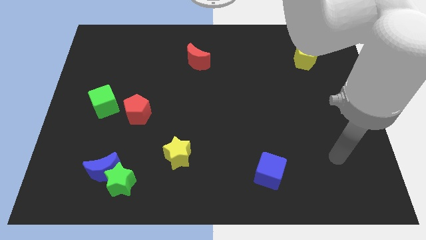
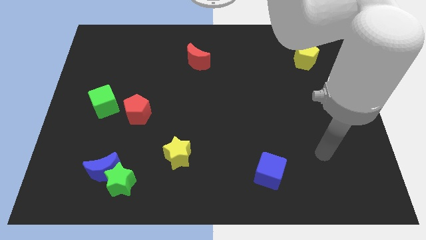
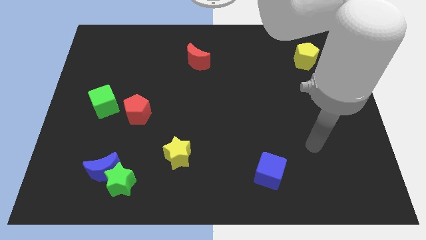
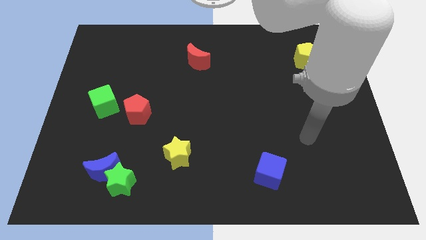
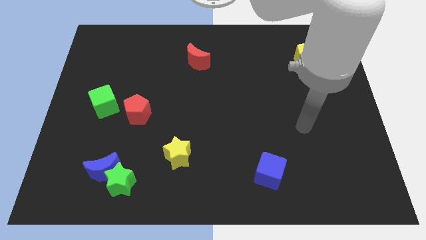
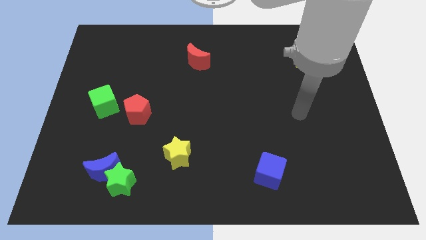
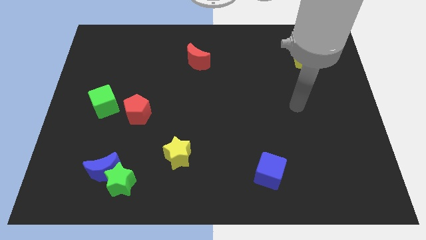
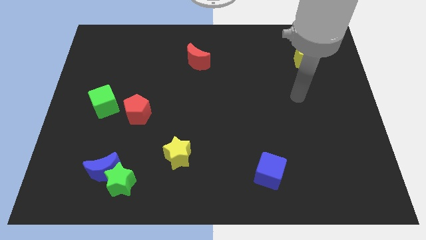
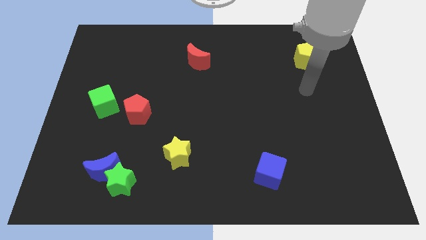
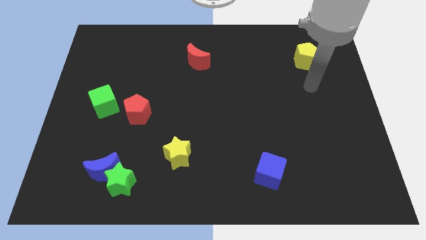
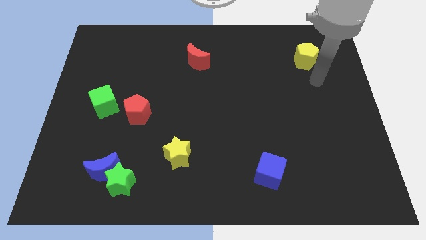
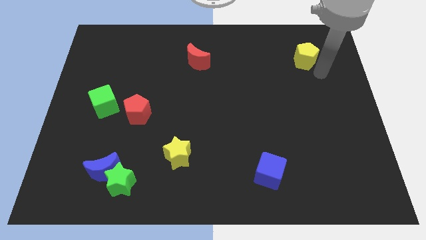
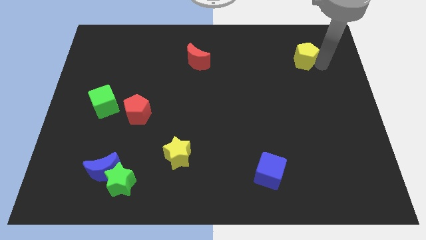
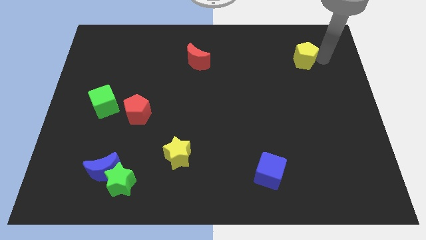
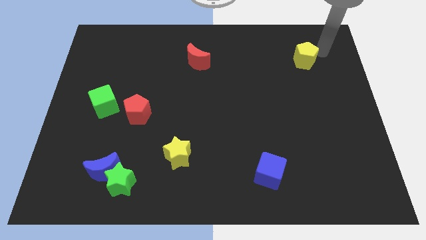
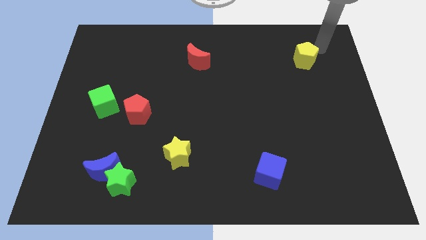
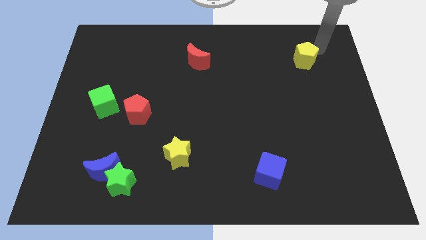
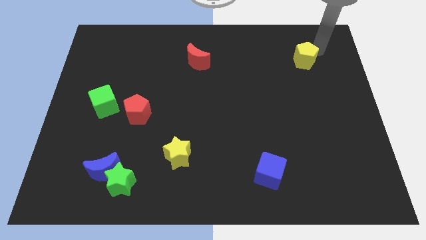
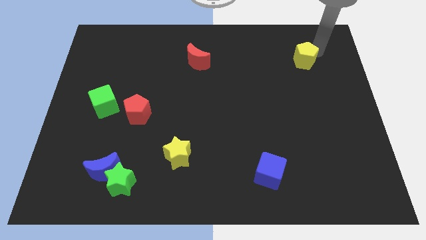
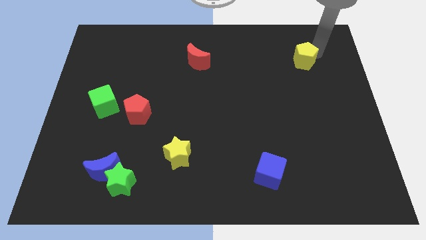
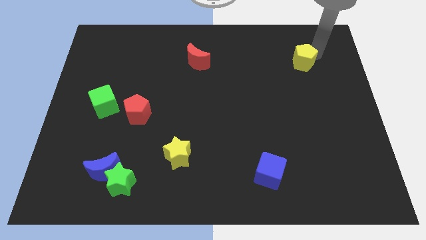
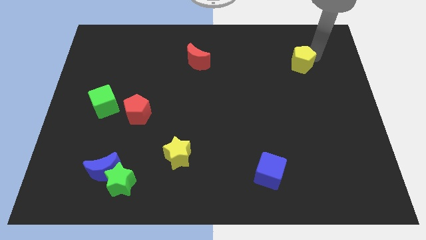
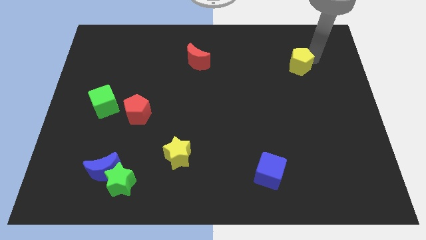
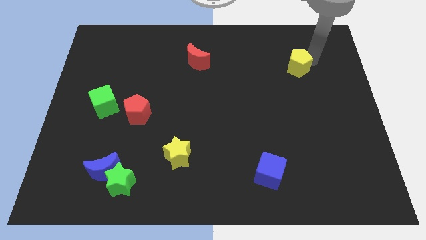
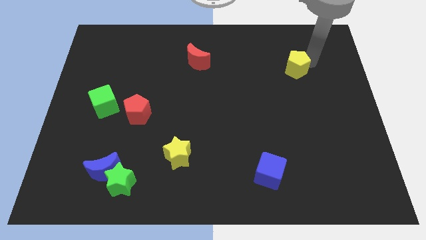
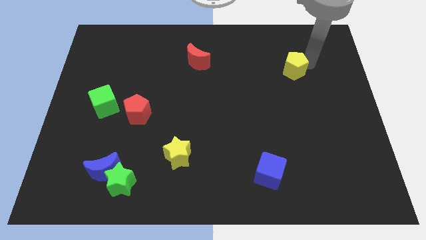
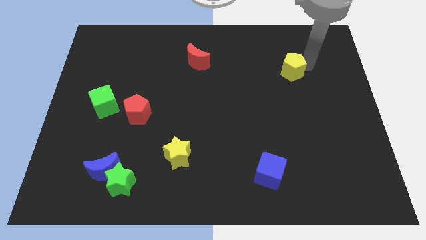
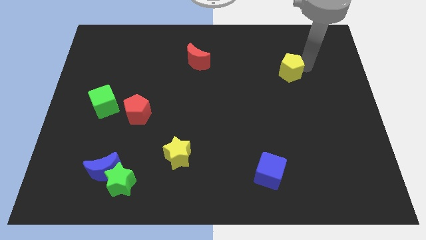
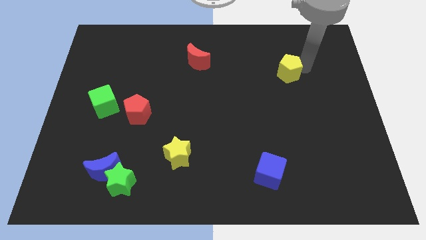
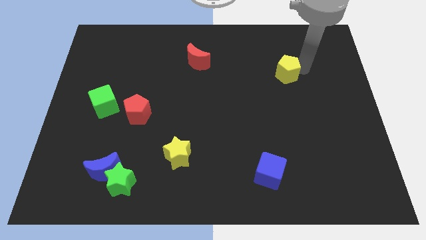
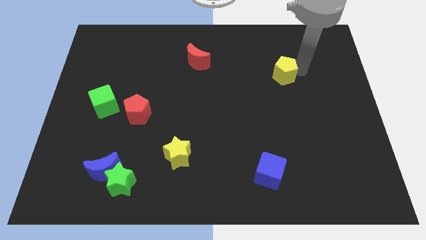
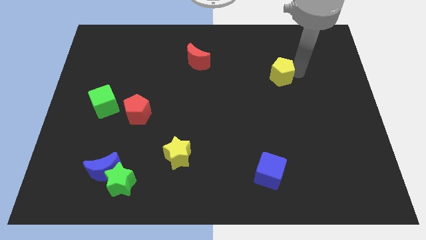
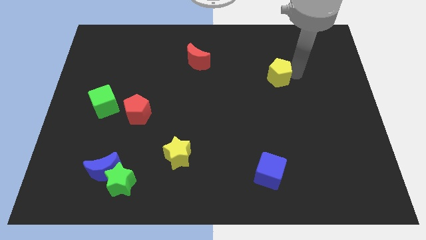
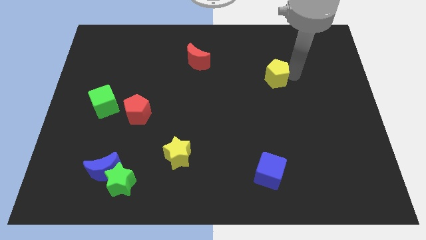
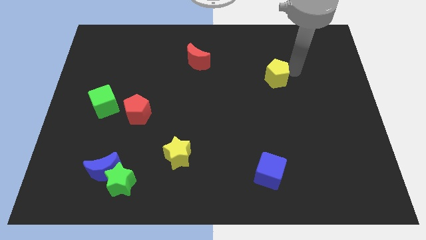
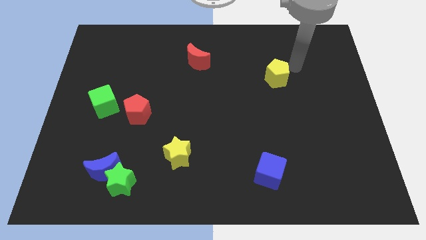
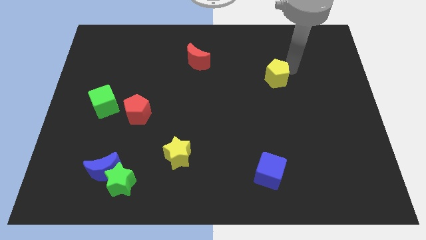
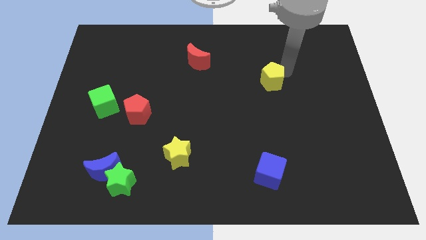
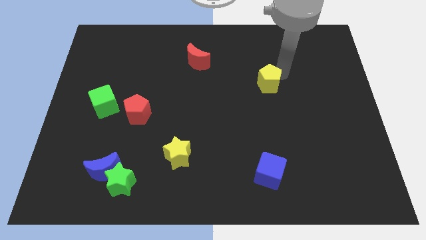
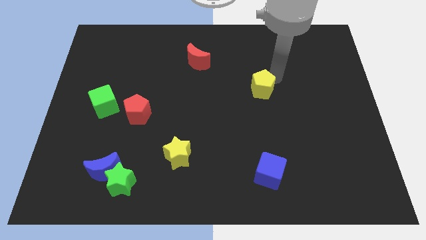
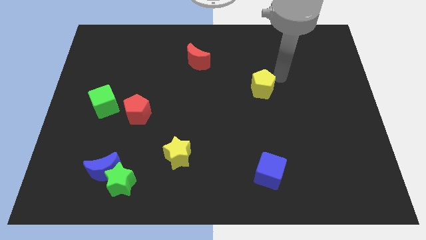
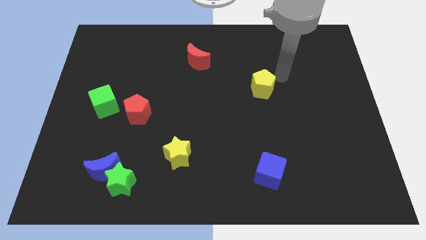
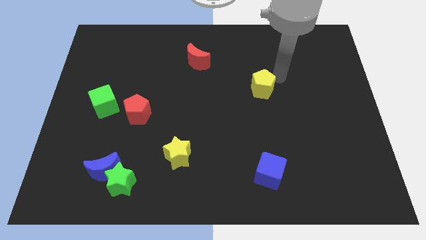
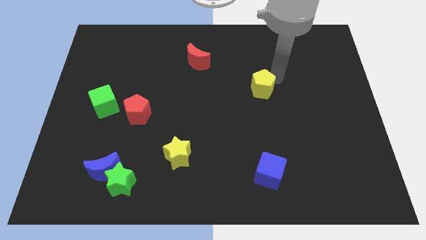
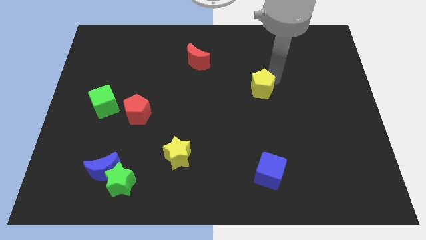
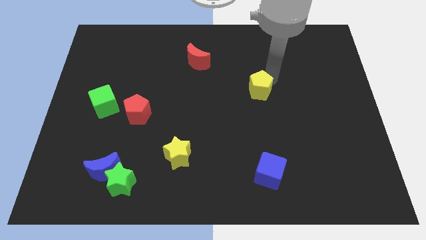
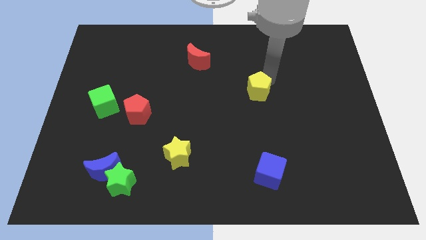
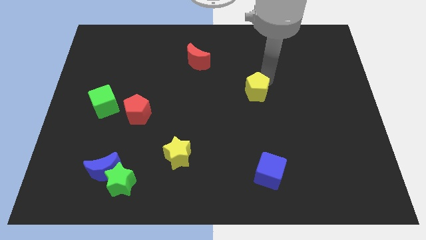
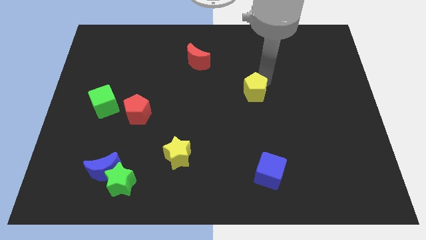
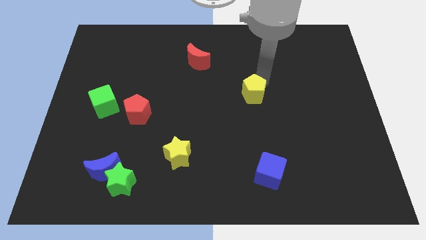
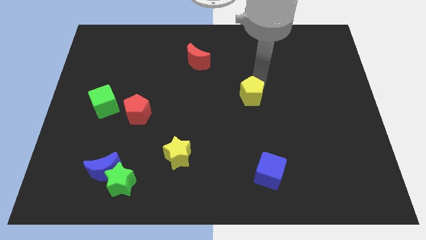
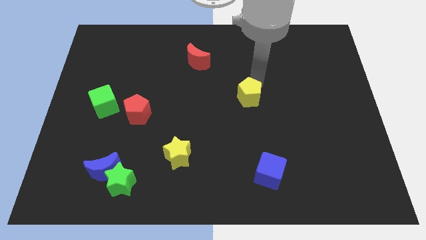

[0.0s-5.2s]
push the yellow pentagon down and to the left

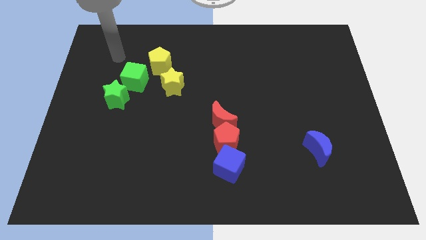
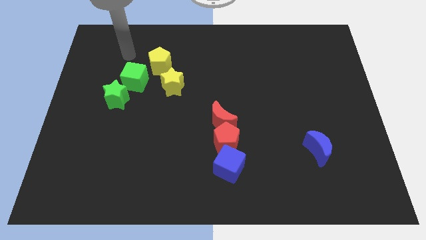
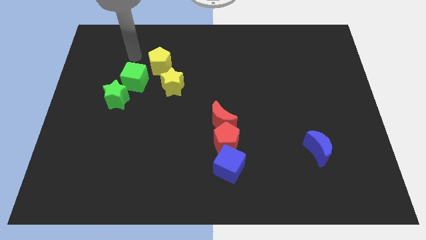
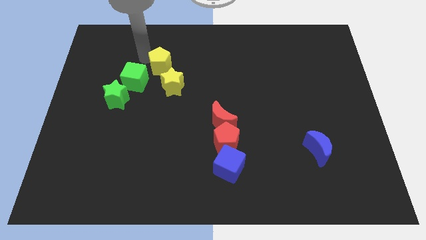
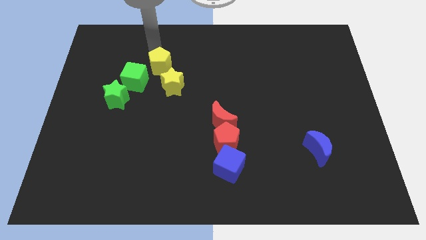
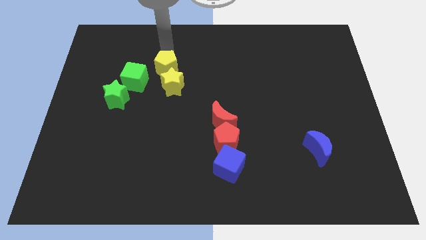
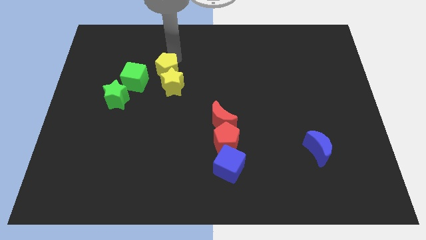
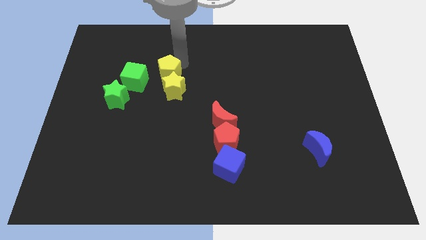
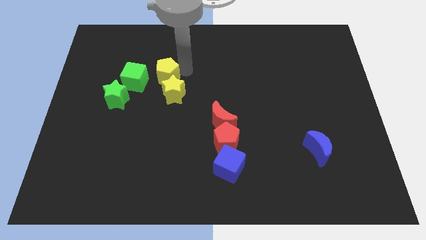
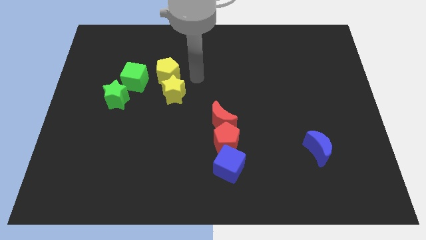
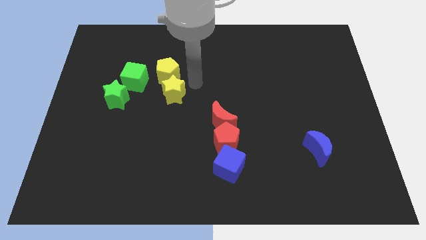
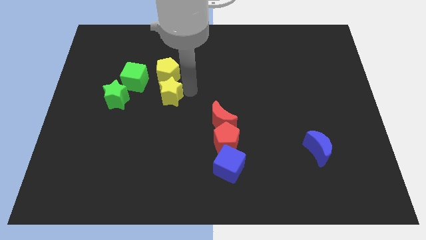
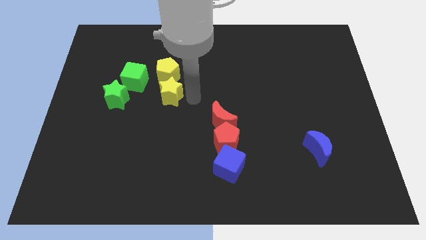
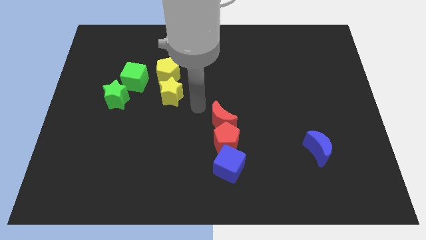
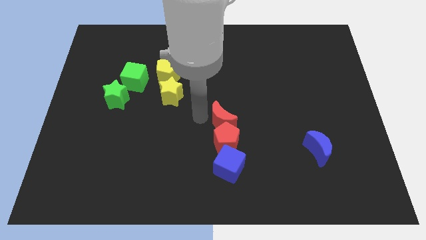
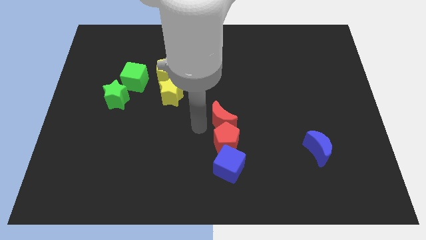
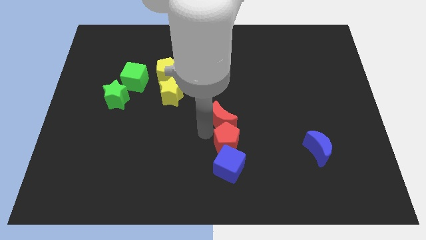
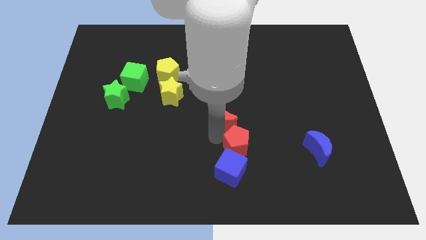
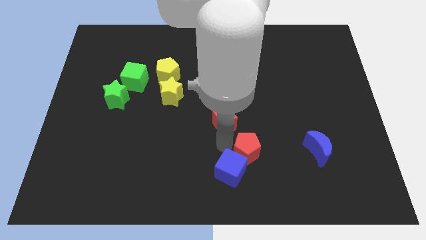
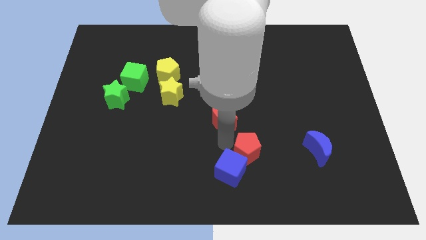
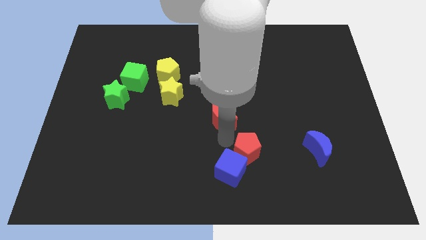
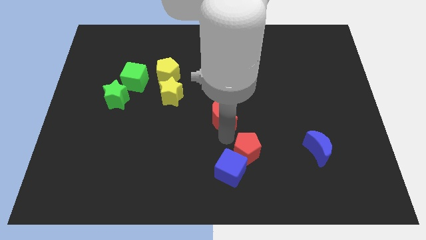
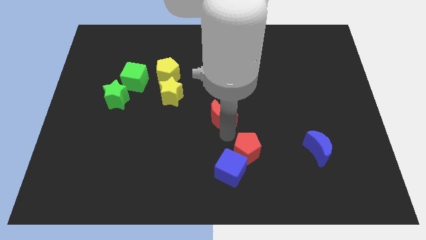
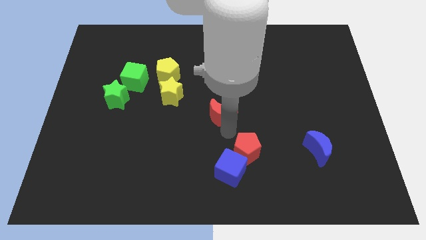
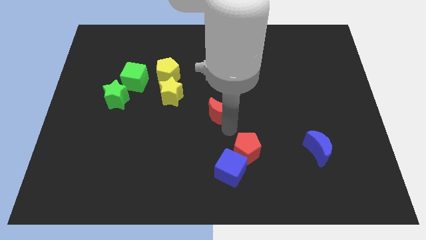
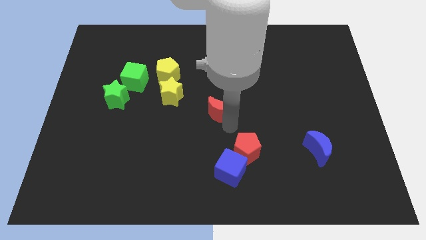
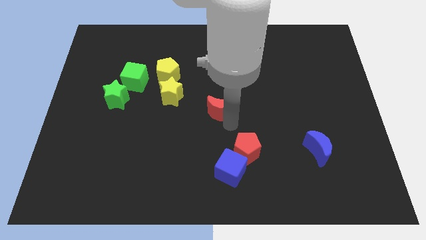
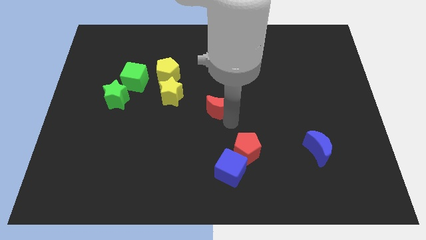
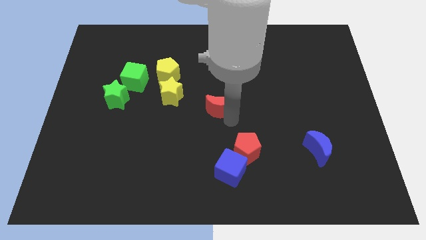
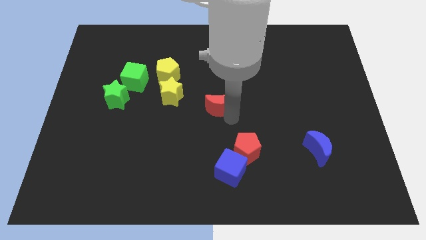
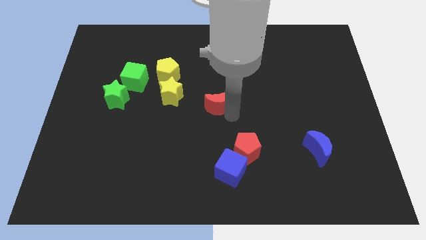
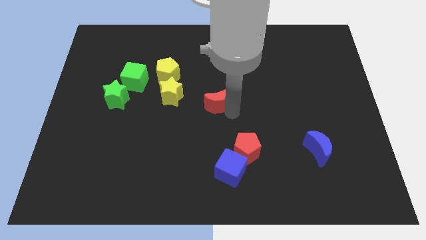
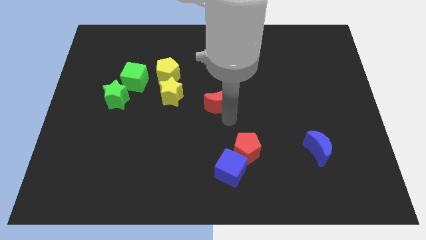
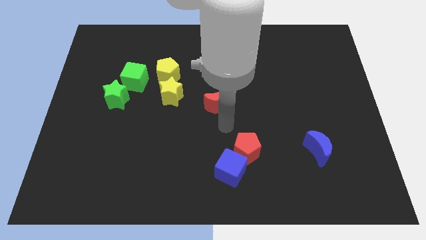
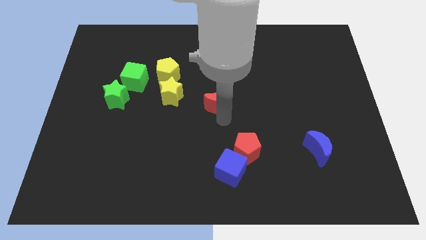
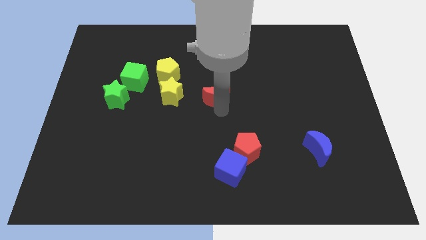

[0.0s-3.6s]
slightly move the red moon up
